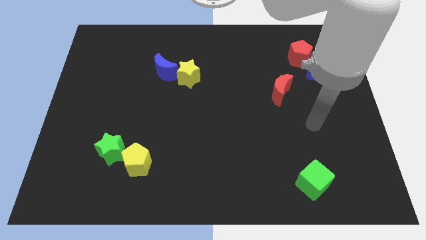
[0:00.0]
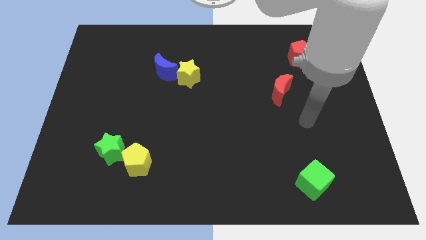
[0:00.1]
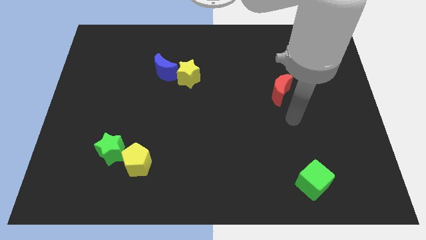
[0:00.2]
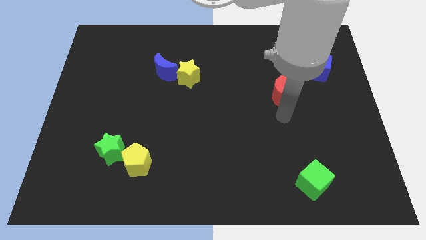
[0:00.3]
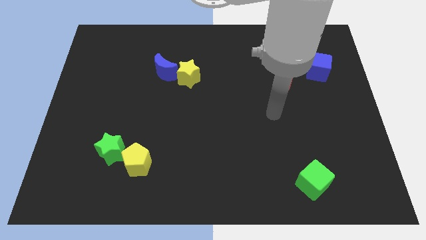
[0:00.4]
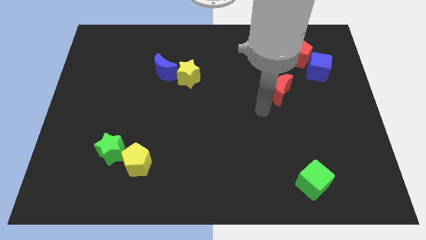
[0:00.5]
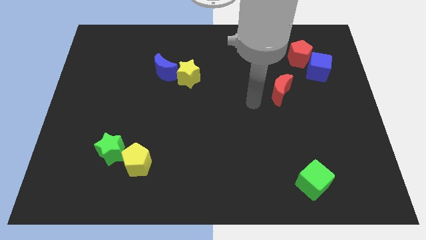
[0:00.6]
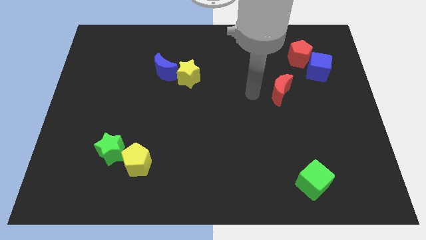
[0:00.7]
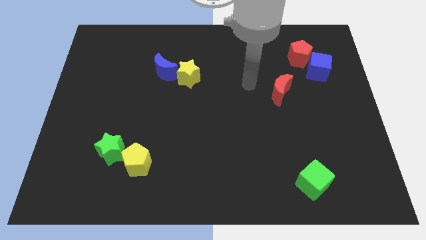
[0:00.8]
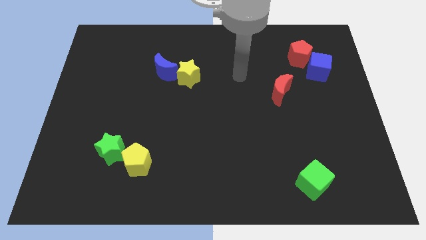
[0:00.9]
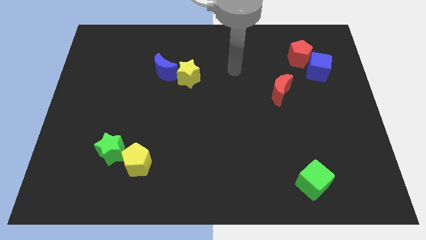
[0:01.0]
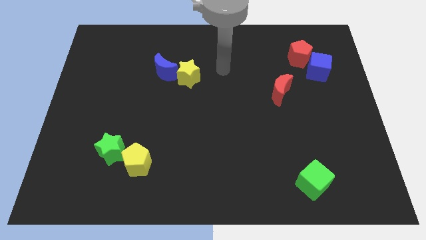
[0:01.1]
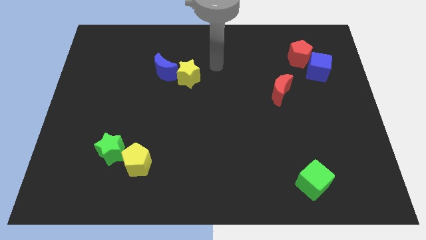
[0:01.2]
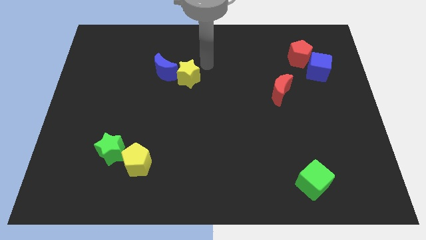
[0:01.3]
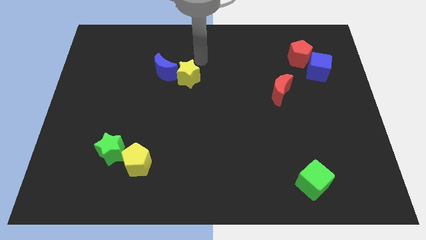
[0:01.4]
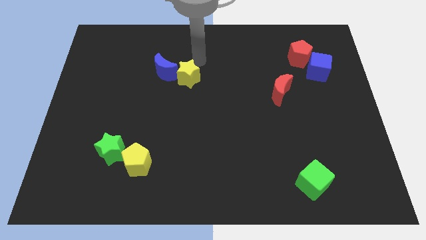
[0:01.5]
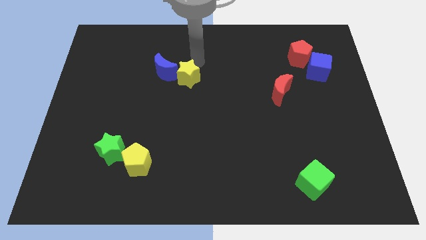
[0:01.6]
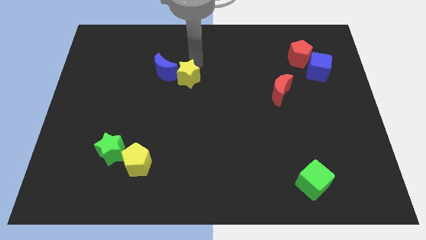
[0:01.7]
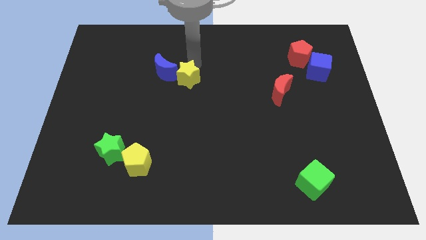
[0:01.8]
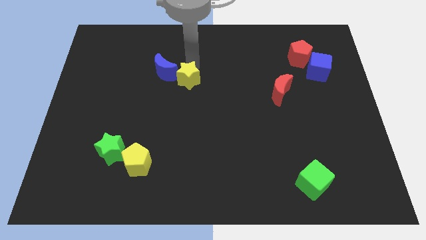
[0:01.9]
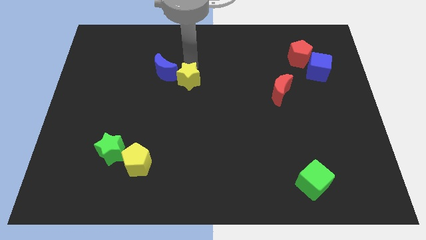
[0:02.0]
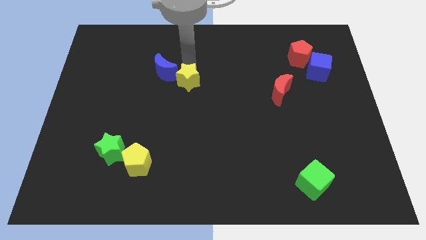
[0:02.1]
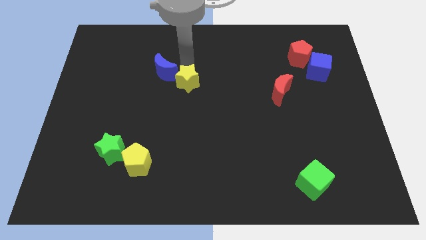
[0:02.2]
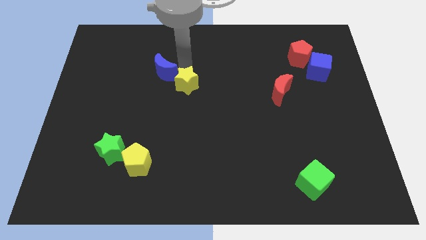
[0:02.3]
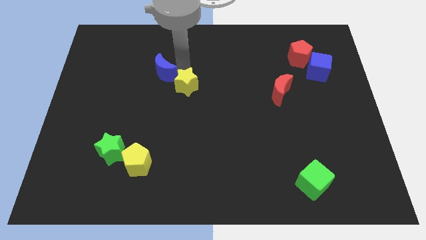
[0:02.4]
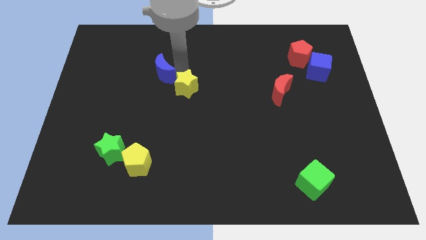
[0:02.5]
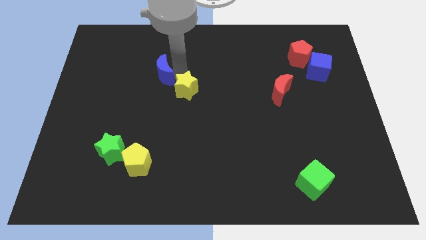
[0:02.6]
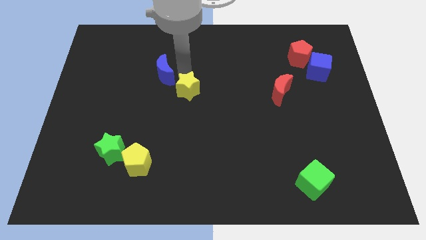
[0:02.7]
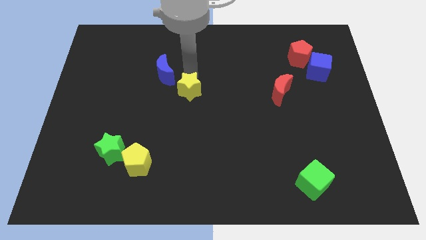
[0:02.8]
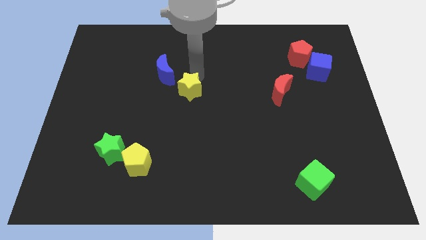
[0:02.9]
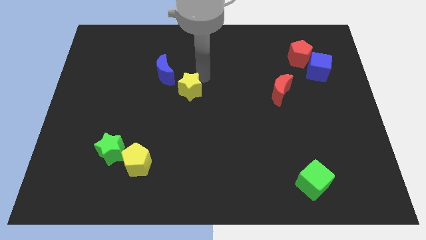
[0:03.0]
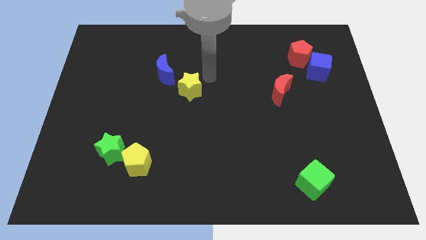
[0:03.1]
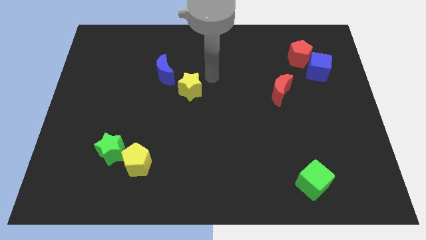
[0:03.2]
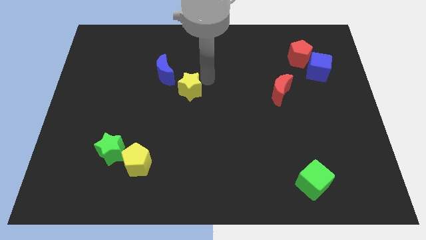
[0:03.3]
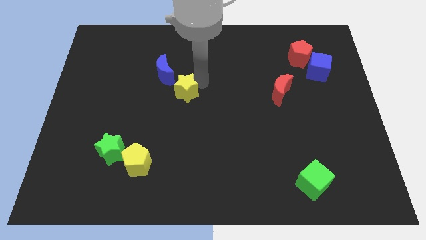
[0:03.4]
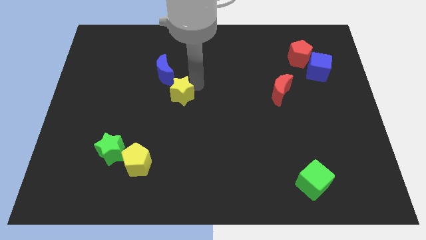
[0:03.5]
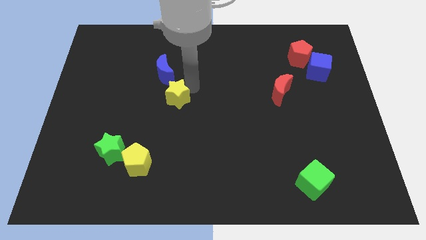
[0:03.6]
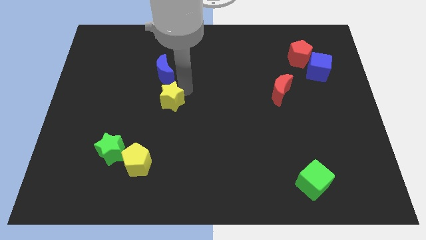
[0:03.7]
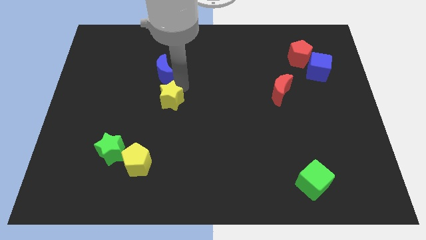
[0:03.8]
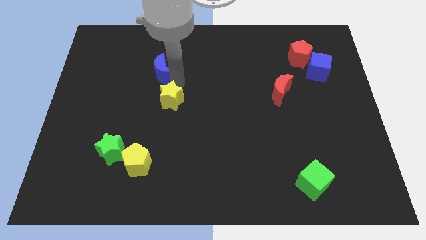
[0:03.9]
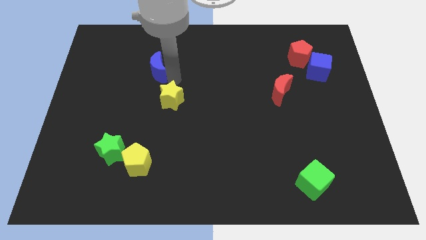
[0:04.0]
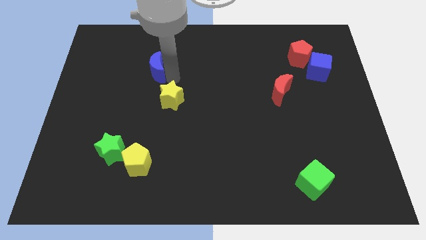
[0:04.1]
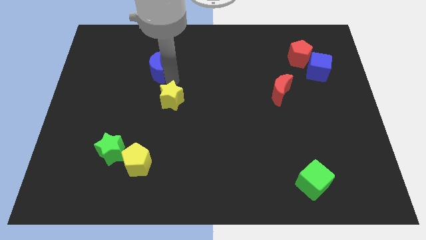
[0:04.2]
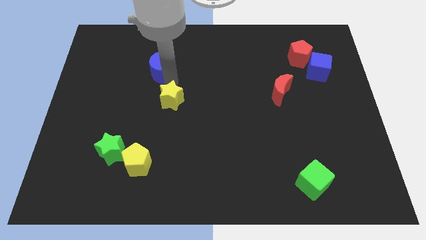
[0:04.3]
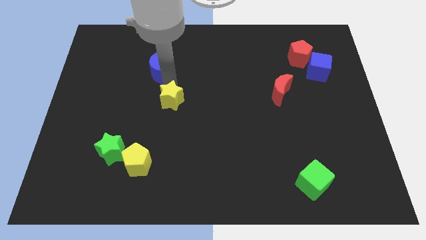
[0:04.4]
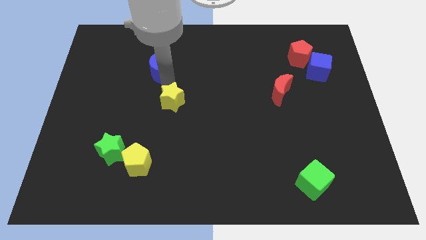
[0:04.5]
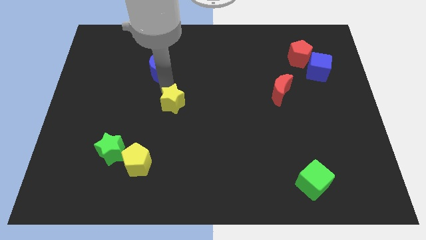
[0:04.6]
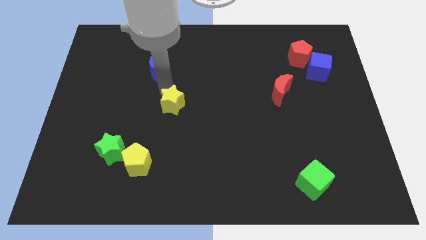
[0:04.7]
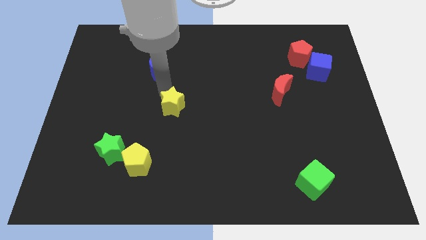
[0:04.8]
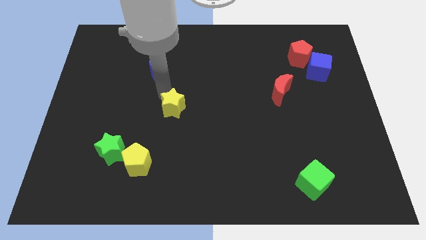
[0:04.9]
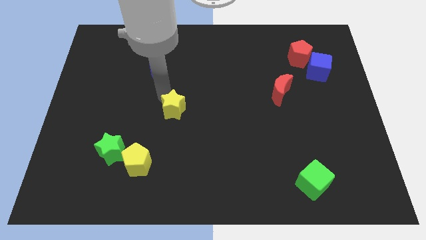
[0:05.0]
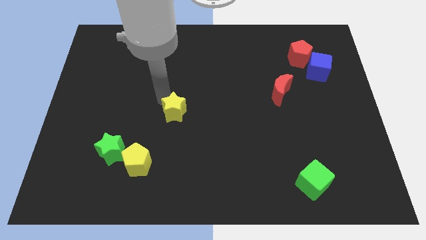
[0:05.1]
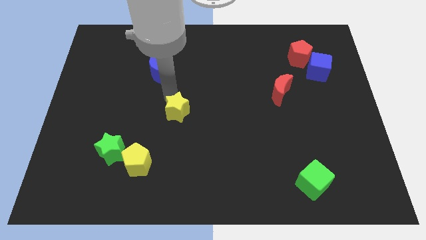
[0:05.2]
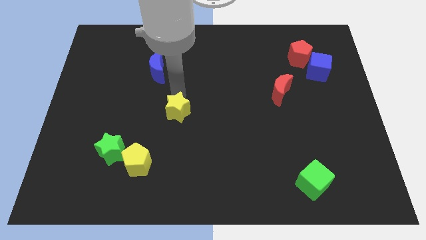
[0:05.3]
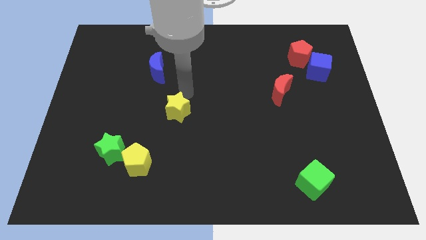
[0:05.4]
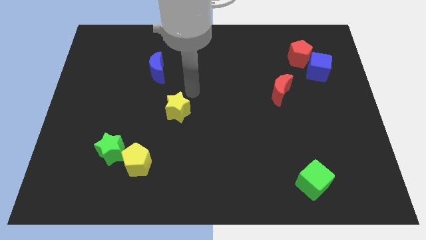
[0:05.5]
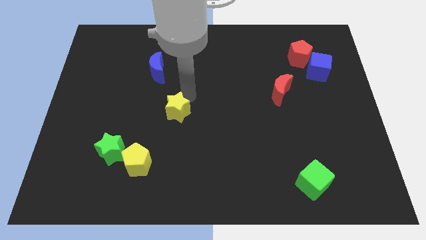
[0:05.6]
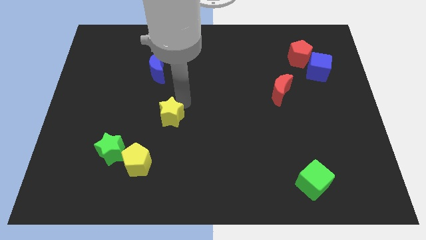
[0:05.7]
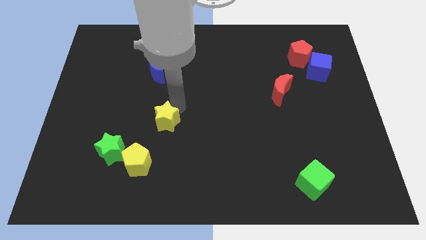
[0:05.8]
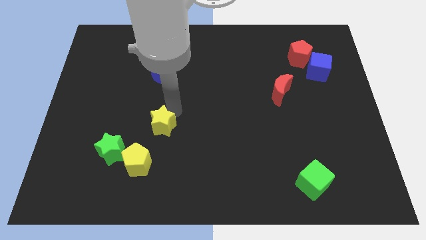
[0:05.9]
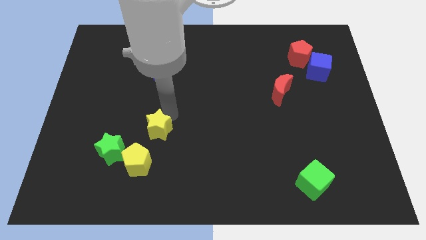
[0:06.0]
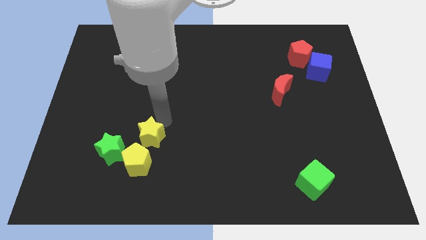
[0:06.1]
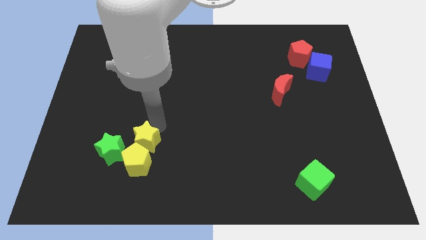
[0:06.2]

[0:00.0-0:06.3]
put the yellow star towards the yellow pentagon

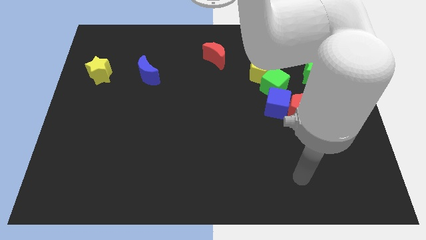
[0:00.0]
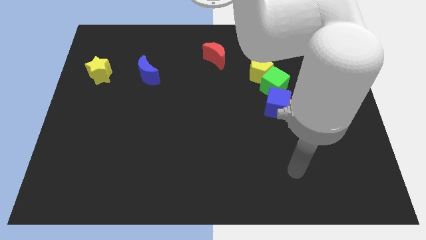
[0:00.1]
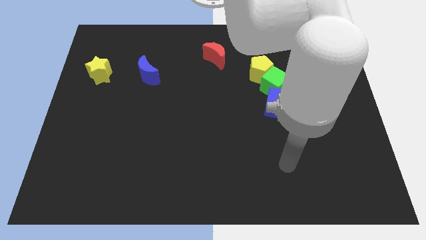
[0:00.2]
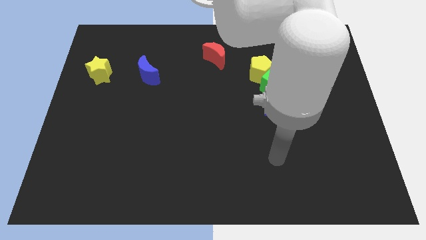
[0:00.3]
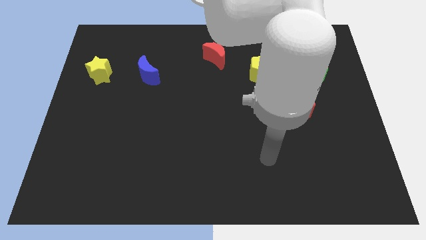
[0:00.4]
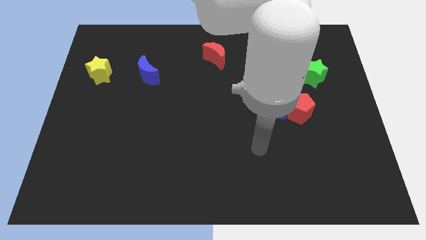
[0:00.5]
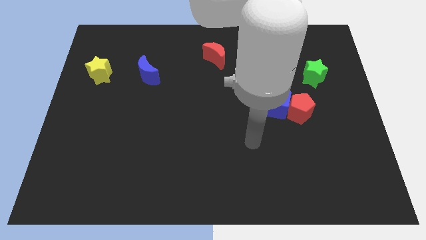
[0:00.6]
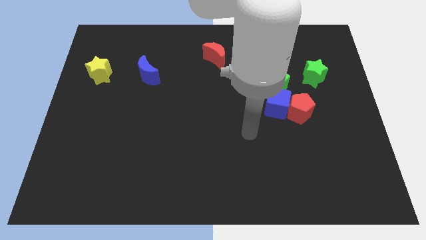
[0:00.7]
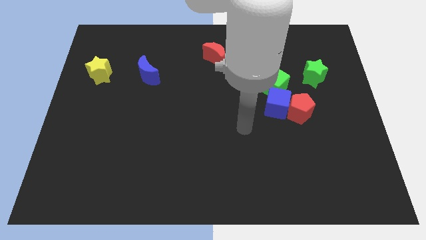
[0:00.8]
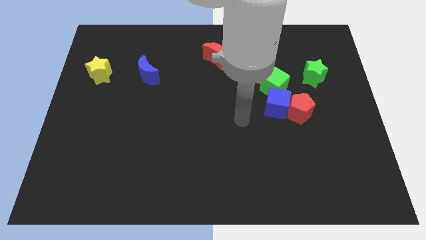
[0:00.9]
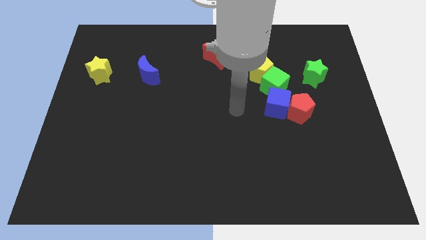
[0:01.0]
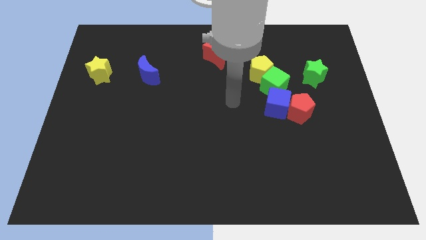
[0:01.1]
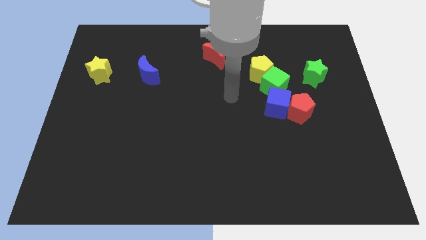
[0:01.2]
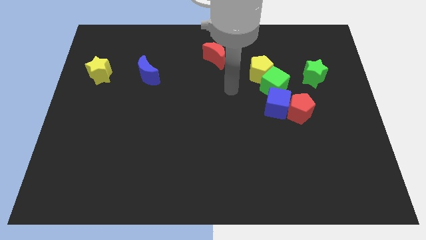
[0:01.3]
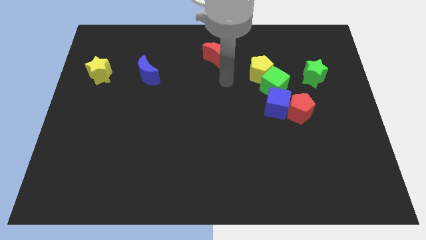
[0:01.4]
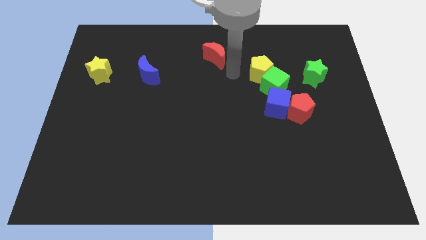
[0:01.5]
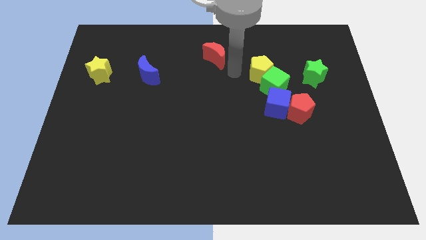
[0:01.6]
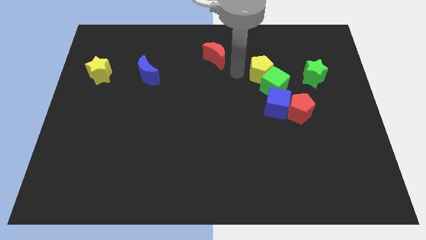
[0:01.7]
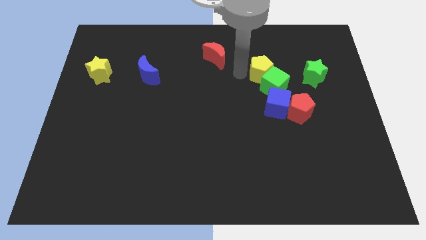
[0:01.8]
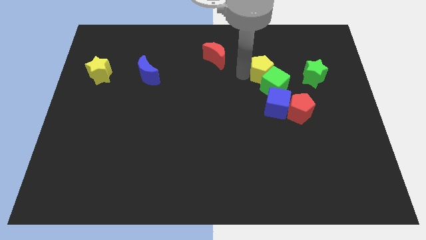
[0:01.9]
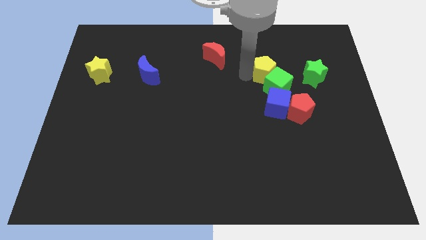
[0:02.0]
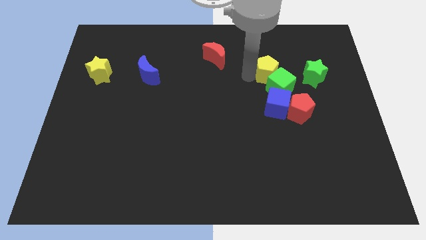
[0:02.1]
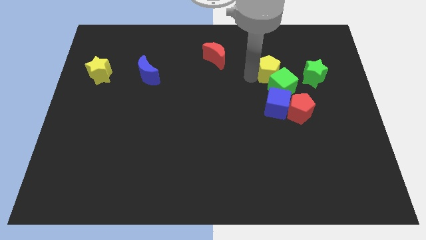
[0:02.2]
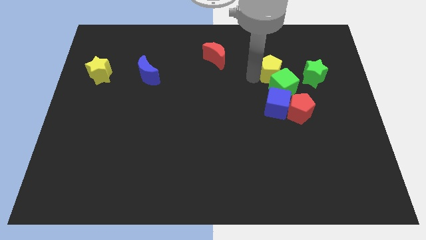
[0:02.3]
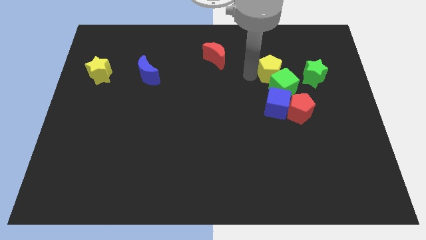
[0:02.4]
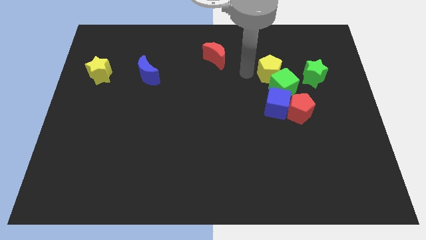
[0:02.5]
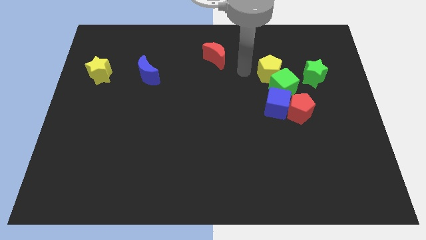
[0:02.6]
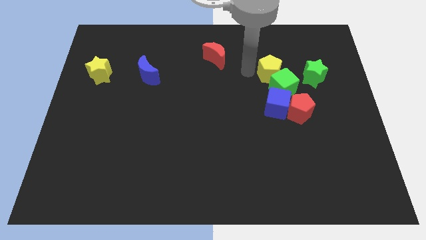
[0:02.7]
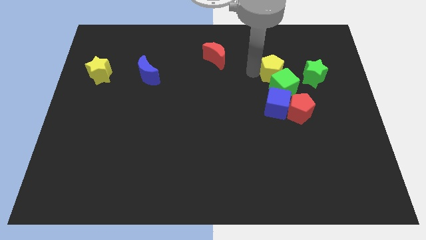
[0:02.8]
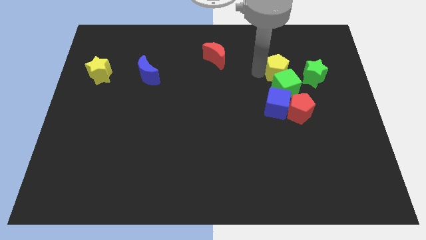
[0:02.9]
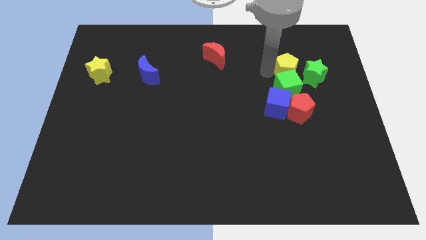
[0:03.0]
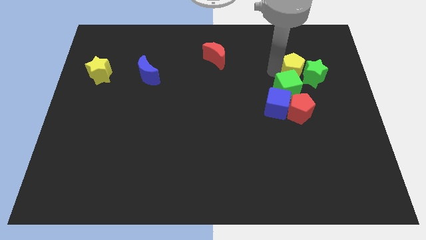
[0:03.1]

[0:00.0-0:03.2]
move the yellow pentagon next to the green star
